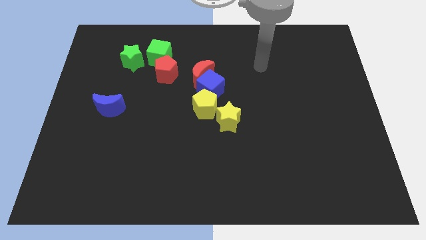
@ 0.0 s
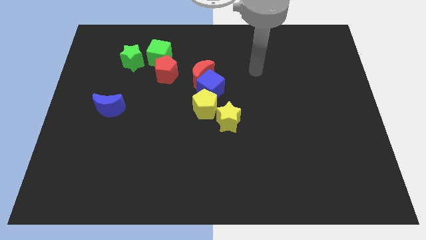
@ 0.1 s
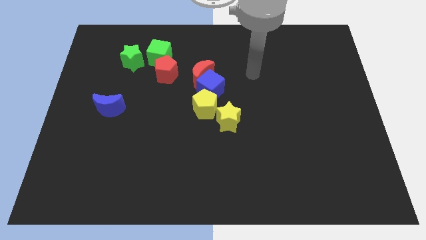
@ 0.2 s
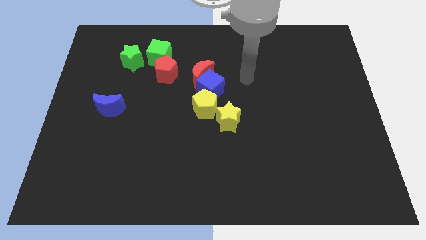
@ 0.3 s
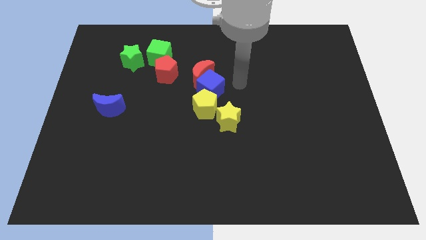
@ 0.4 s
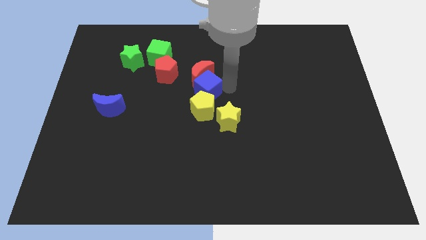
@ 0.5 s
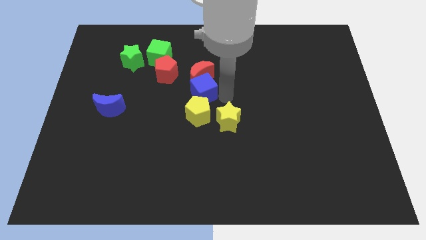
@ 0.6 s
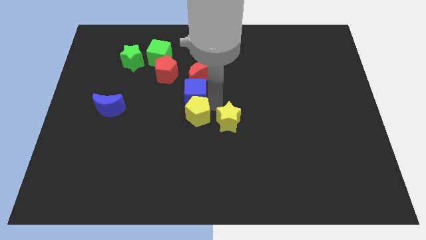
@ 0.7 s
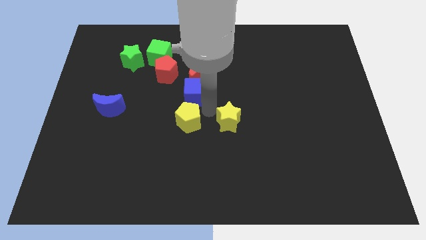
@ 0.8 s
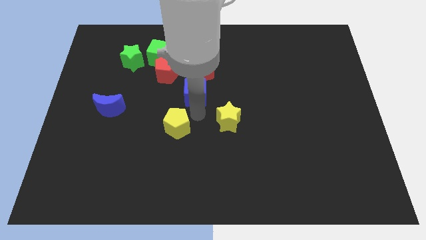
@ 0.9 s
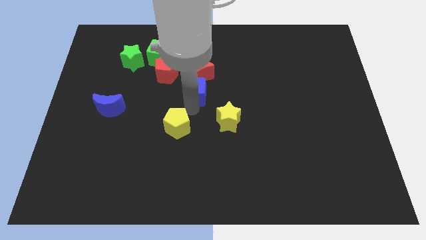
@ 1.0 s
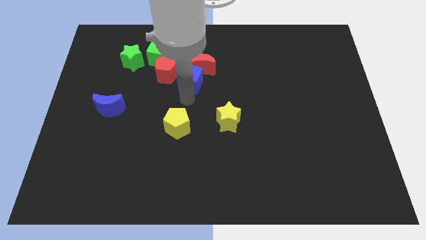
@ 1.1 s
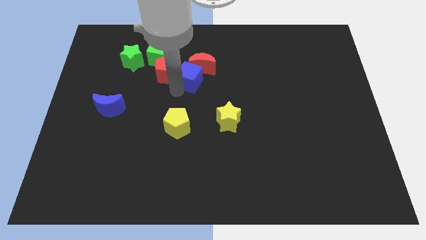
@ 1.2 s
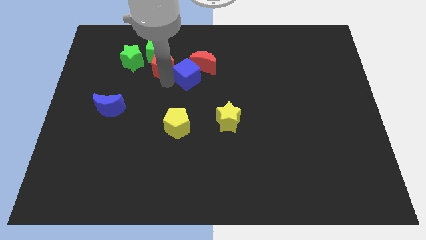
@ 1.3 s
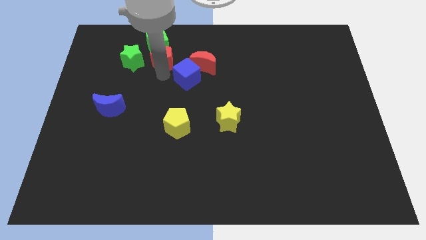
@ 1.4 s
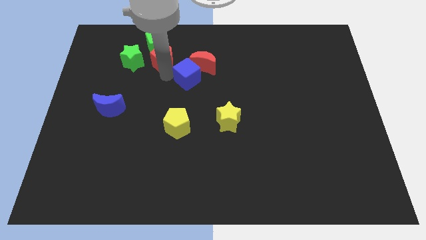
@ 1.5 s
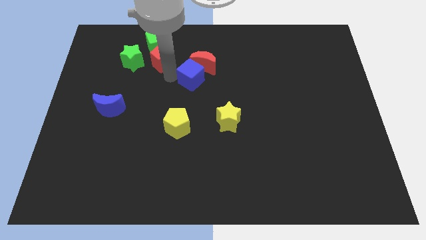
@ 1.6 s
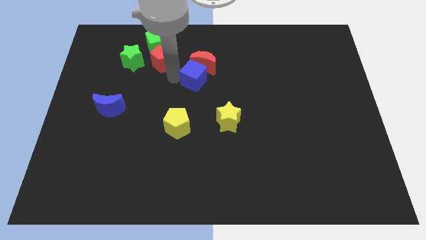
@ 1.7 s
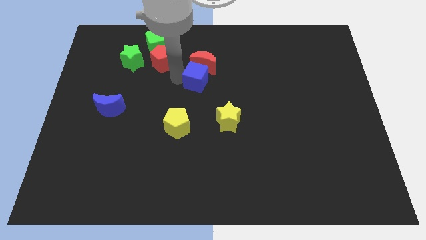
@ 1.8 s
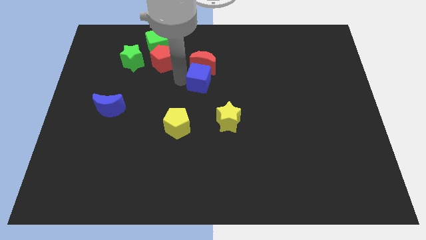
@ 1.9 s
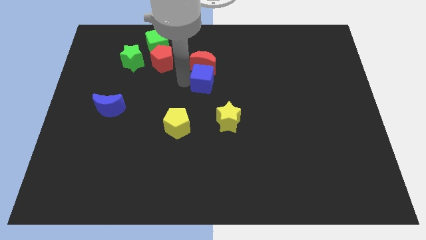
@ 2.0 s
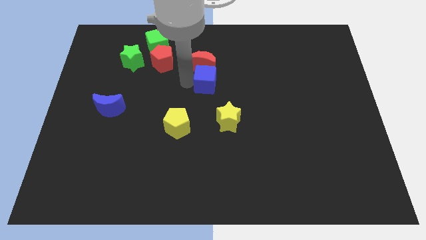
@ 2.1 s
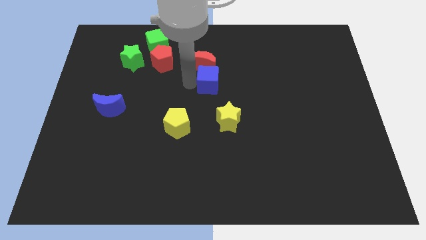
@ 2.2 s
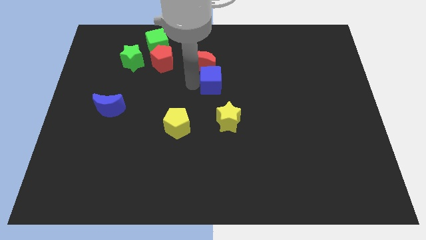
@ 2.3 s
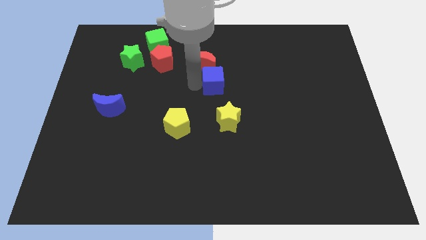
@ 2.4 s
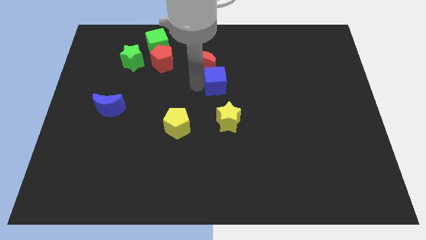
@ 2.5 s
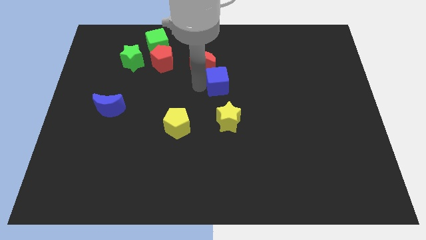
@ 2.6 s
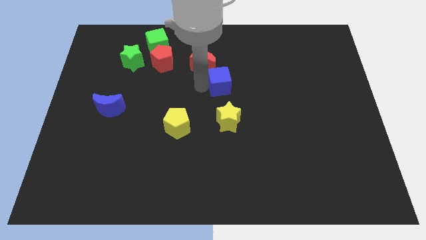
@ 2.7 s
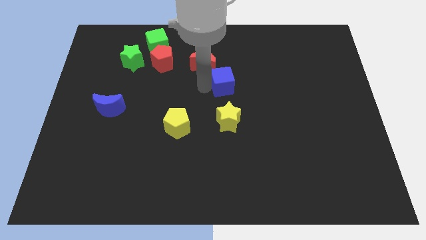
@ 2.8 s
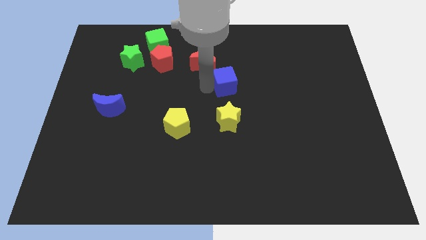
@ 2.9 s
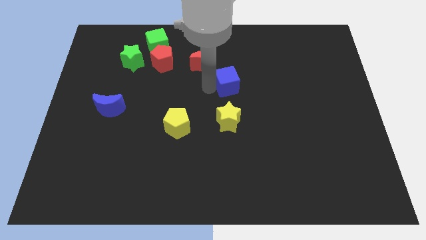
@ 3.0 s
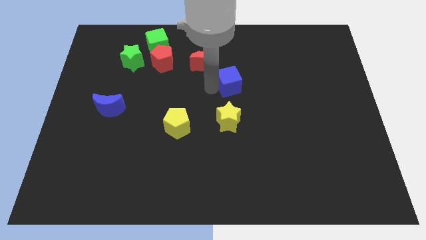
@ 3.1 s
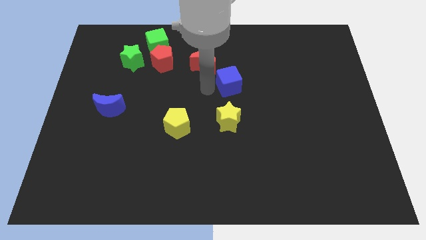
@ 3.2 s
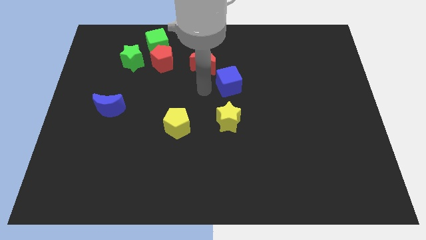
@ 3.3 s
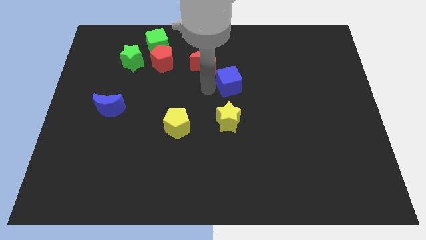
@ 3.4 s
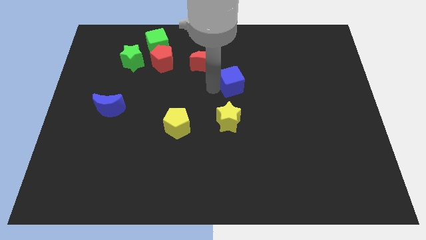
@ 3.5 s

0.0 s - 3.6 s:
move the blue cube away from the red moon and yellow pentagon

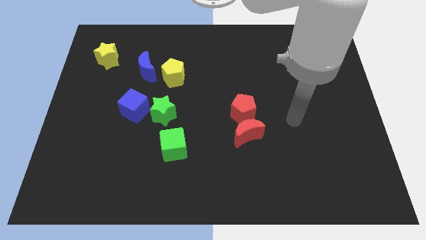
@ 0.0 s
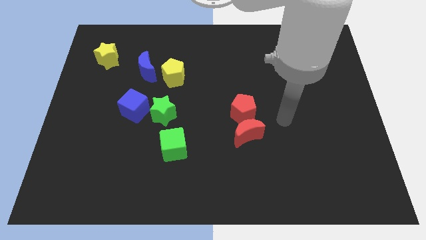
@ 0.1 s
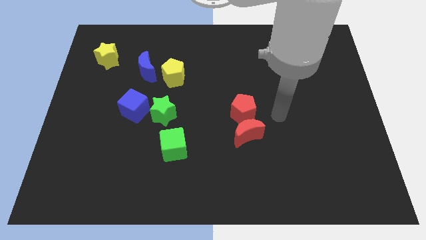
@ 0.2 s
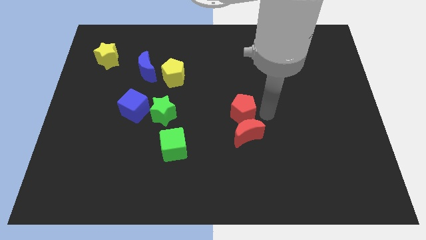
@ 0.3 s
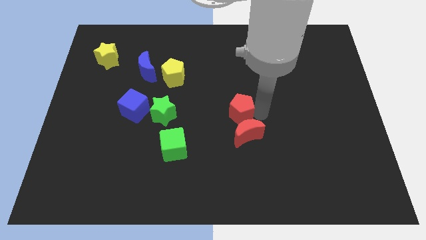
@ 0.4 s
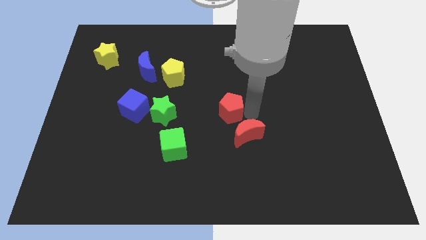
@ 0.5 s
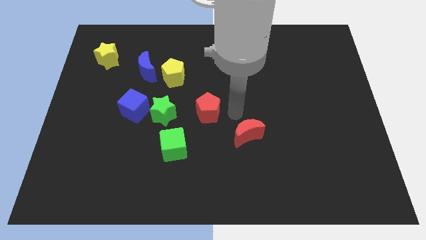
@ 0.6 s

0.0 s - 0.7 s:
separate the red moon from the red pentagon

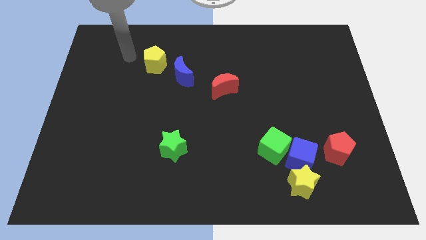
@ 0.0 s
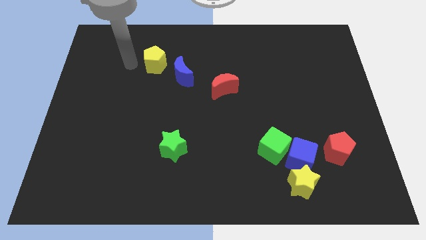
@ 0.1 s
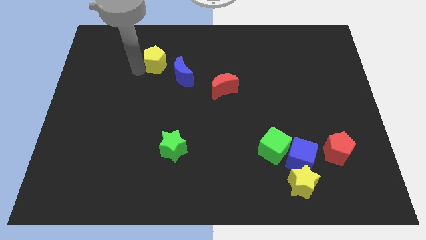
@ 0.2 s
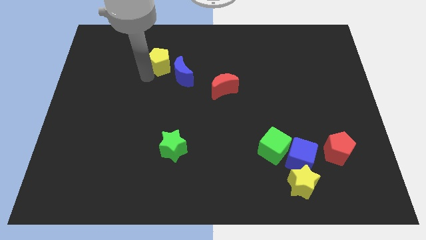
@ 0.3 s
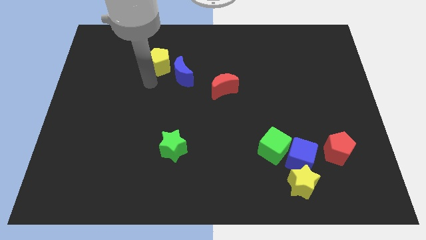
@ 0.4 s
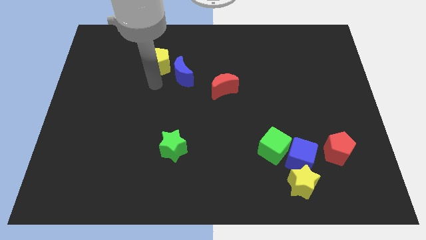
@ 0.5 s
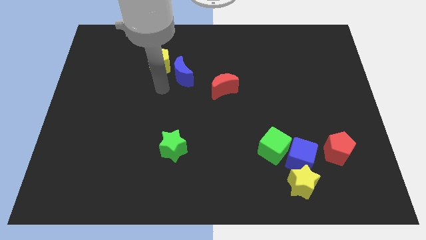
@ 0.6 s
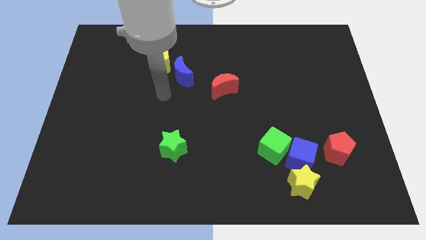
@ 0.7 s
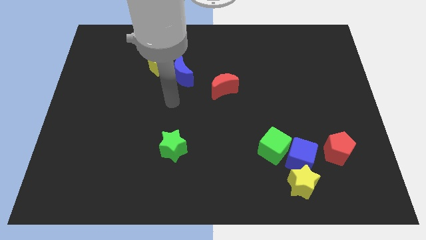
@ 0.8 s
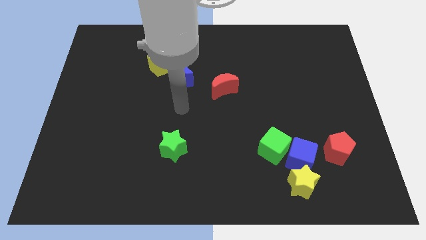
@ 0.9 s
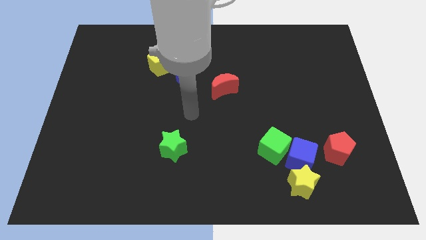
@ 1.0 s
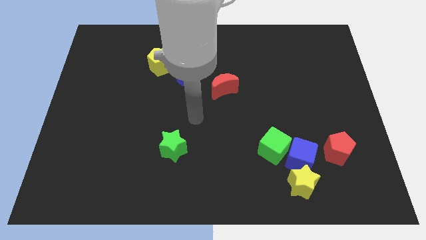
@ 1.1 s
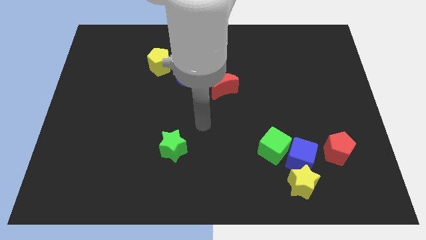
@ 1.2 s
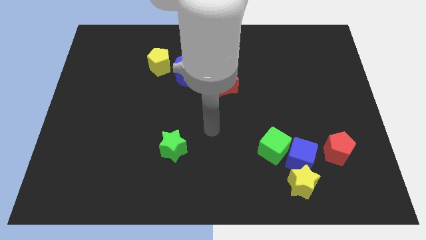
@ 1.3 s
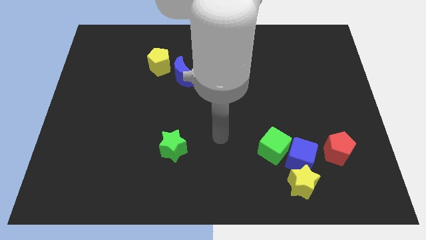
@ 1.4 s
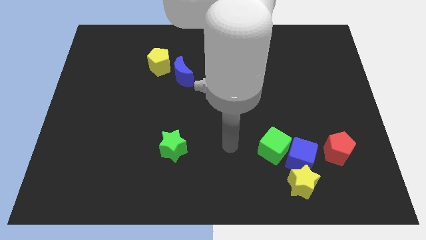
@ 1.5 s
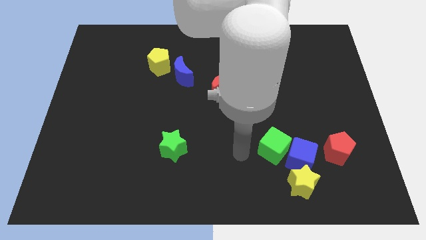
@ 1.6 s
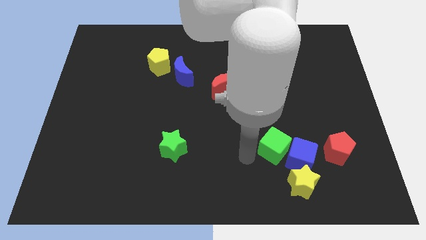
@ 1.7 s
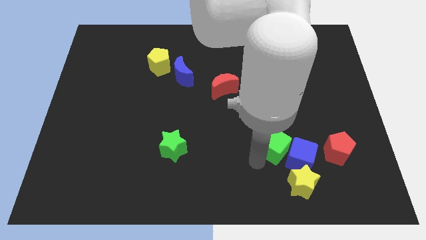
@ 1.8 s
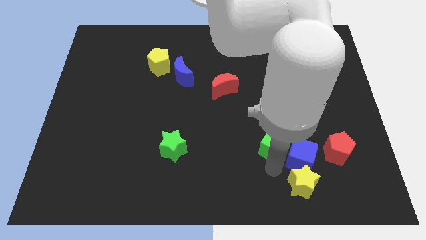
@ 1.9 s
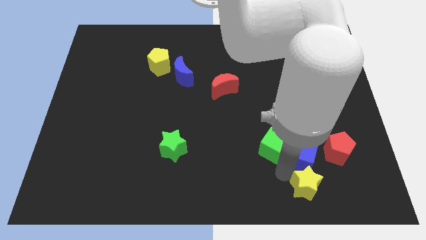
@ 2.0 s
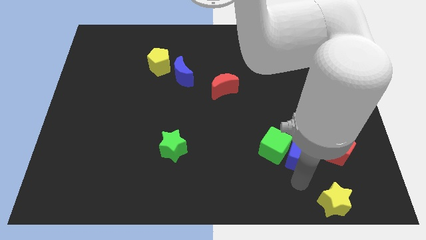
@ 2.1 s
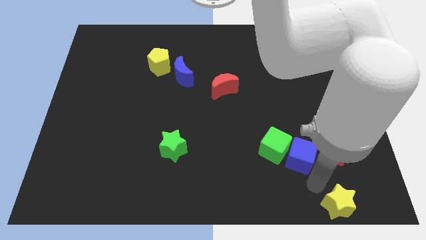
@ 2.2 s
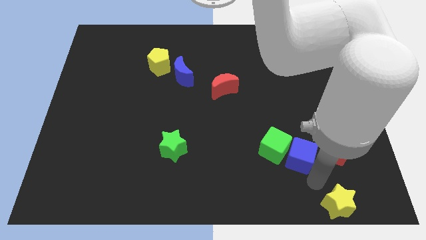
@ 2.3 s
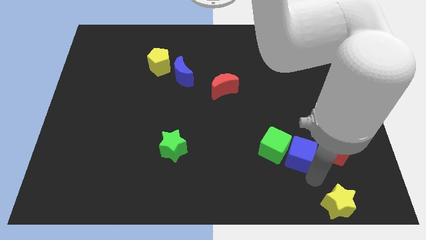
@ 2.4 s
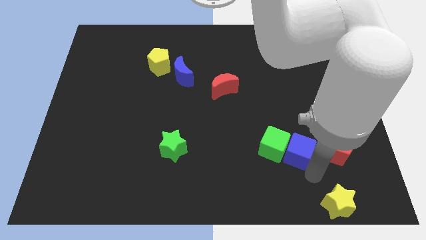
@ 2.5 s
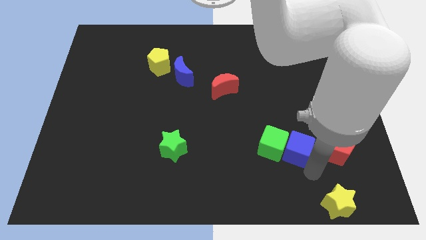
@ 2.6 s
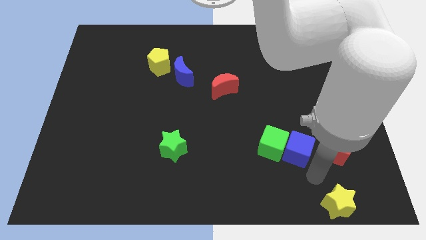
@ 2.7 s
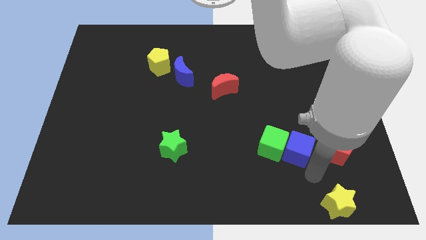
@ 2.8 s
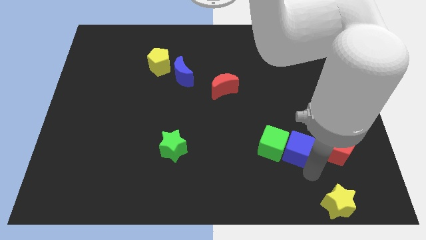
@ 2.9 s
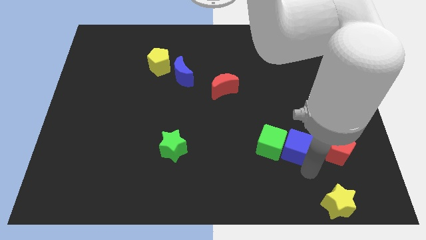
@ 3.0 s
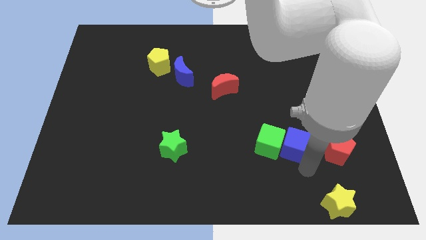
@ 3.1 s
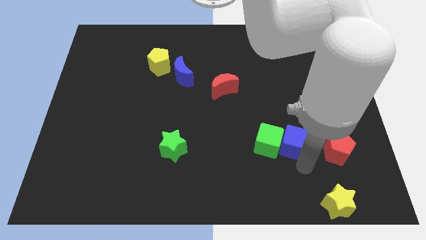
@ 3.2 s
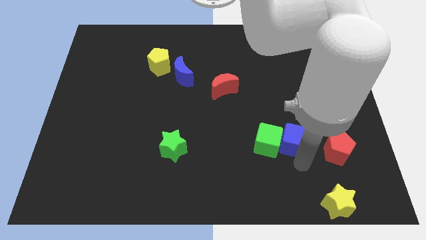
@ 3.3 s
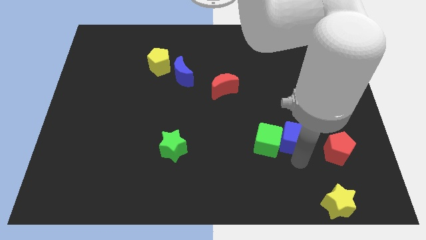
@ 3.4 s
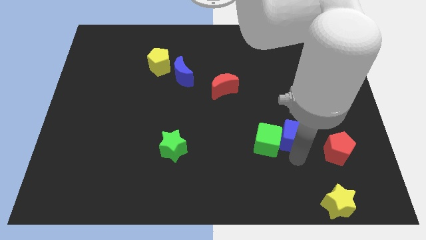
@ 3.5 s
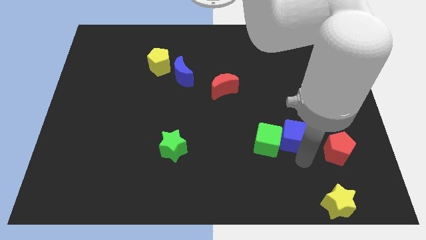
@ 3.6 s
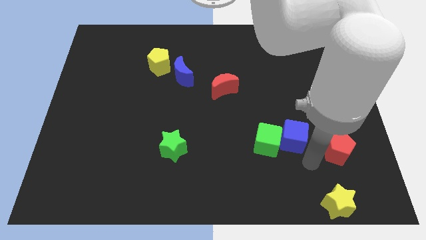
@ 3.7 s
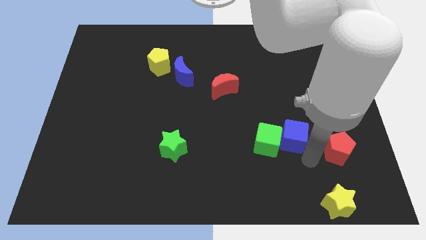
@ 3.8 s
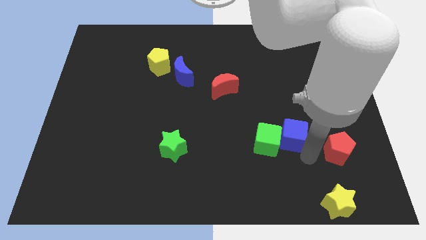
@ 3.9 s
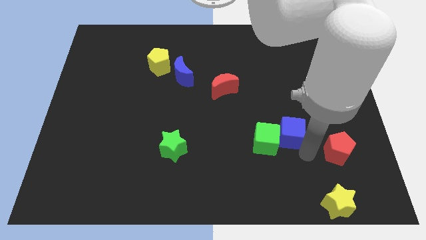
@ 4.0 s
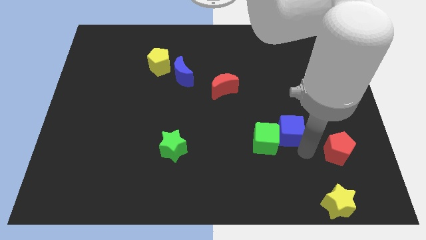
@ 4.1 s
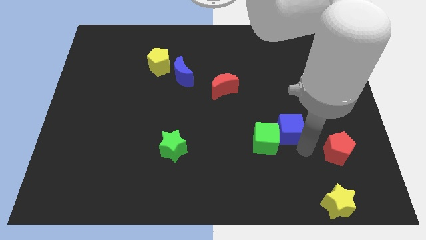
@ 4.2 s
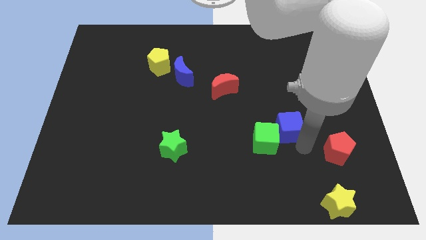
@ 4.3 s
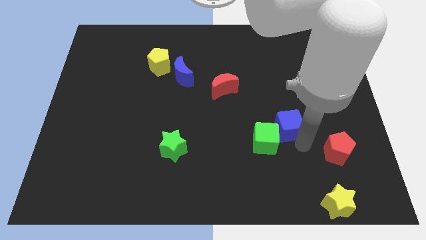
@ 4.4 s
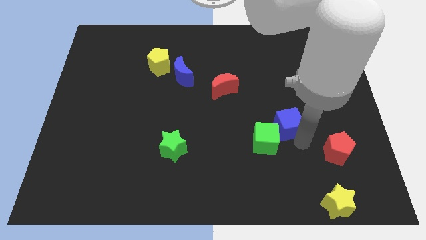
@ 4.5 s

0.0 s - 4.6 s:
move the blue cube away from the yellow star, green cube, and red pentagon

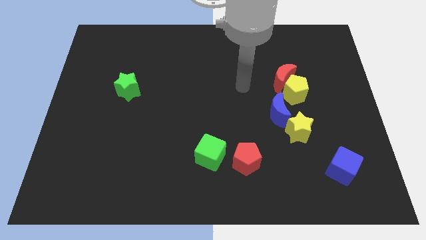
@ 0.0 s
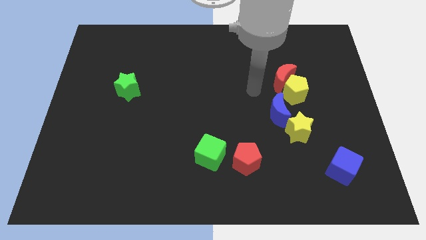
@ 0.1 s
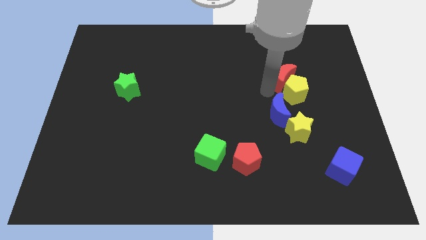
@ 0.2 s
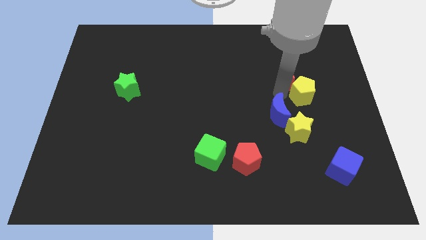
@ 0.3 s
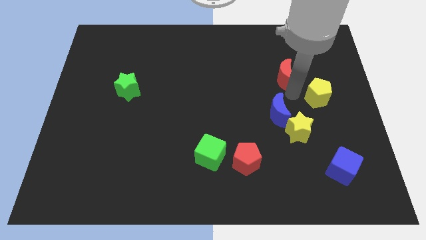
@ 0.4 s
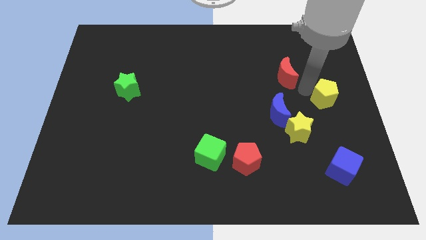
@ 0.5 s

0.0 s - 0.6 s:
separate the red moon from the yellow pentagon
